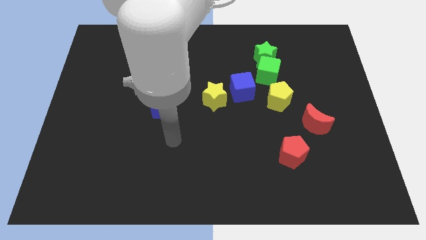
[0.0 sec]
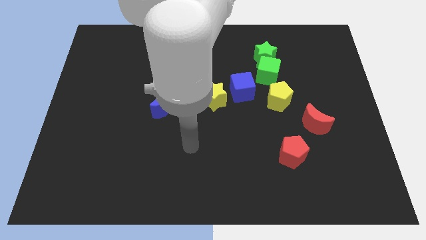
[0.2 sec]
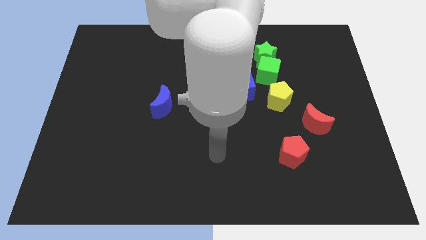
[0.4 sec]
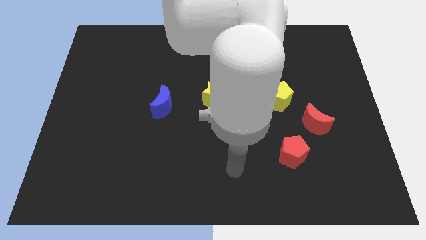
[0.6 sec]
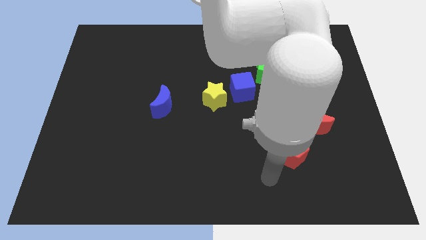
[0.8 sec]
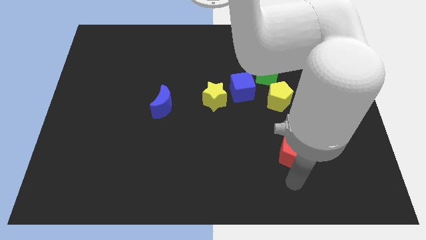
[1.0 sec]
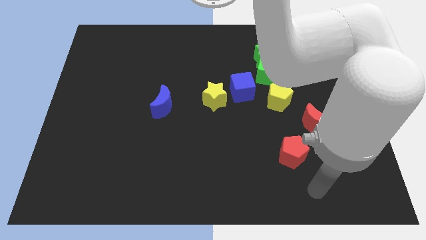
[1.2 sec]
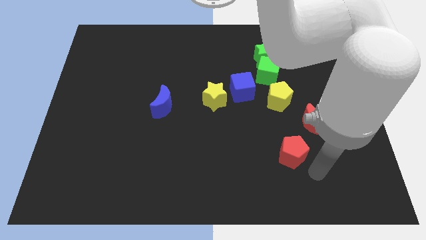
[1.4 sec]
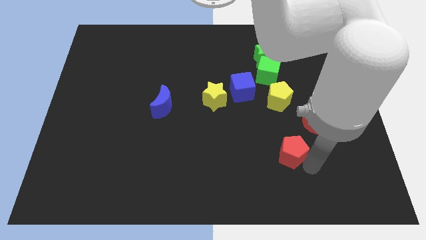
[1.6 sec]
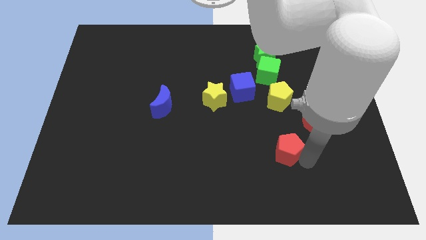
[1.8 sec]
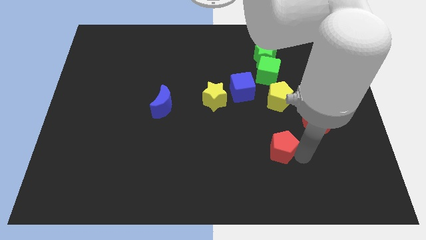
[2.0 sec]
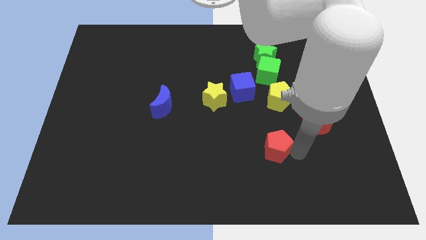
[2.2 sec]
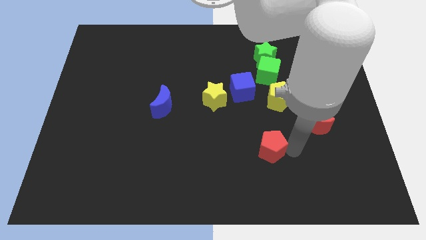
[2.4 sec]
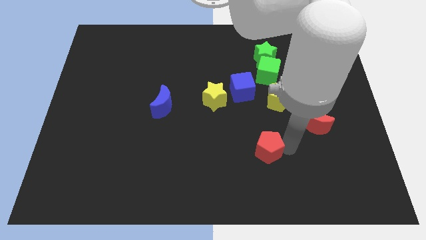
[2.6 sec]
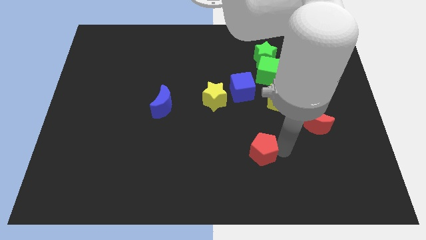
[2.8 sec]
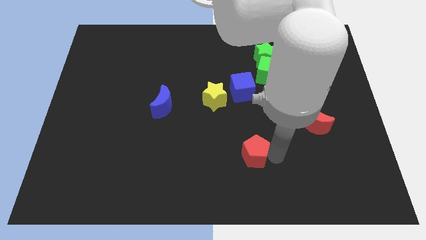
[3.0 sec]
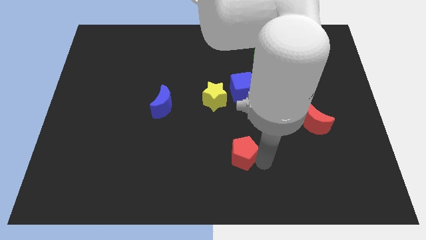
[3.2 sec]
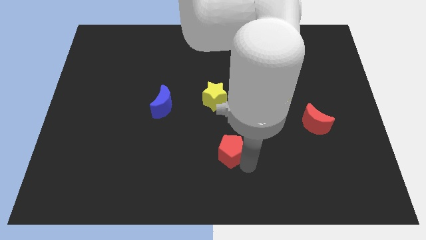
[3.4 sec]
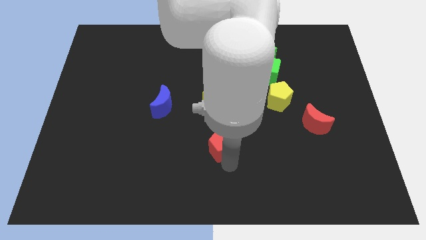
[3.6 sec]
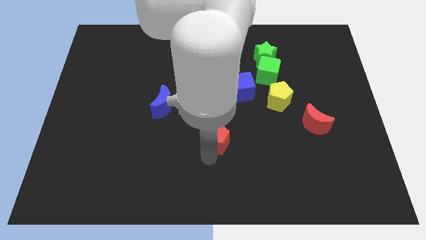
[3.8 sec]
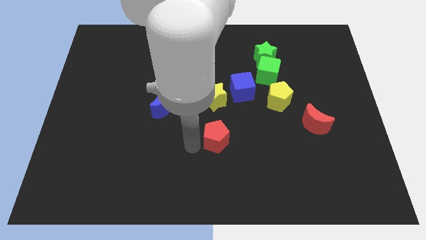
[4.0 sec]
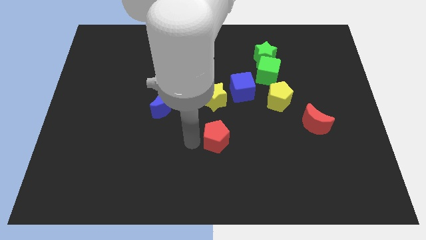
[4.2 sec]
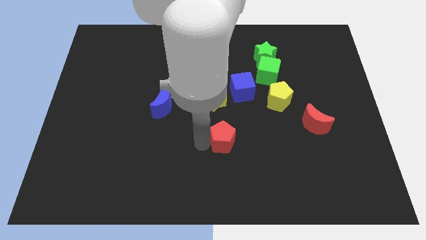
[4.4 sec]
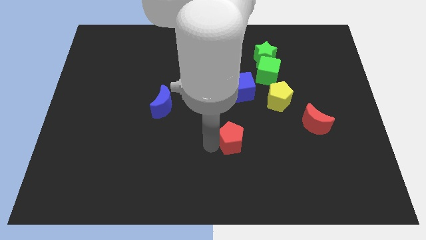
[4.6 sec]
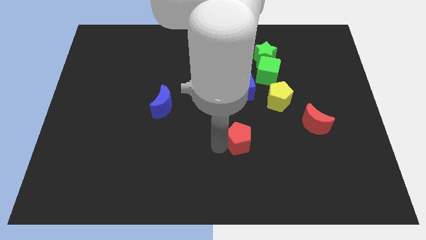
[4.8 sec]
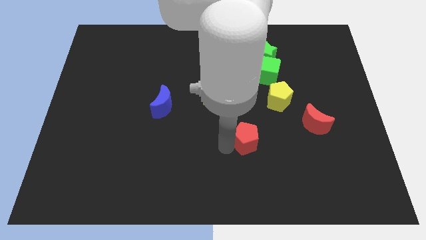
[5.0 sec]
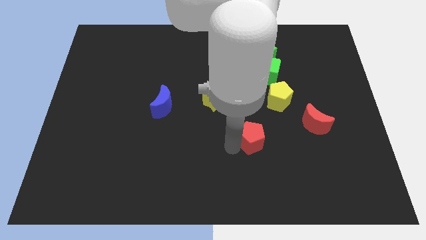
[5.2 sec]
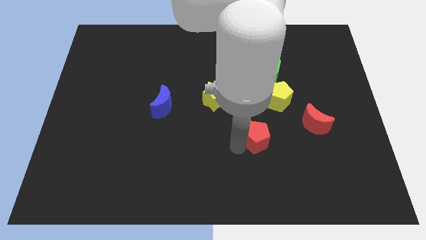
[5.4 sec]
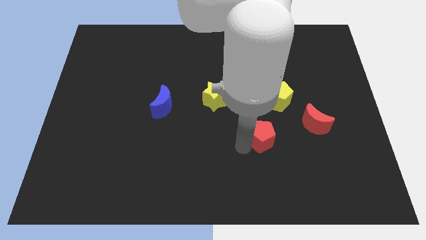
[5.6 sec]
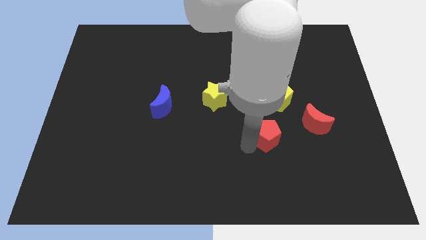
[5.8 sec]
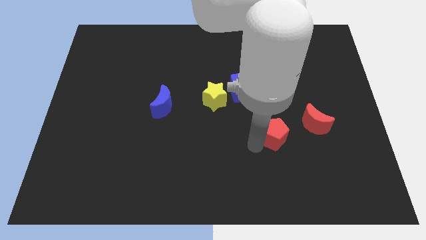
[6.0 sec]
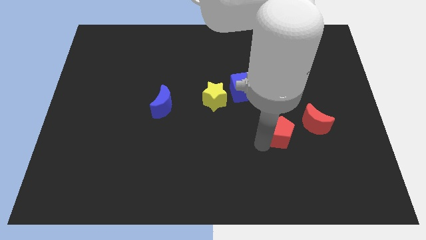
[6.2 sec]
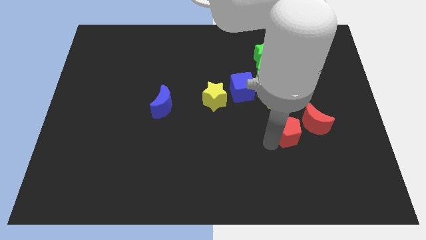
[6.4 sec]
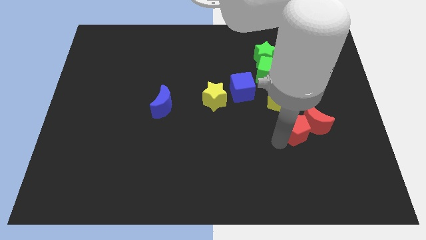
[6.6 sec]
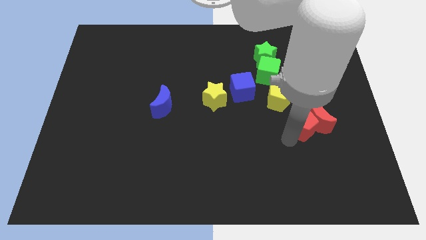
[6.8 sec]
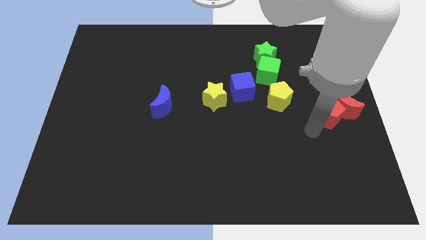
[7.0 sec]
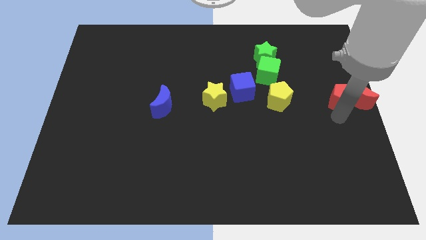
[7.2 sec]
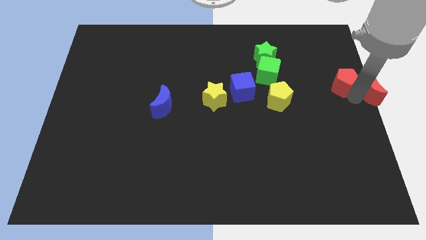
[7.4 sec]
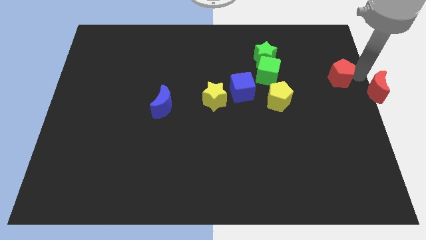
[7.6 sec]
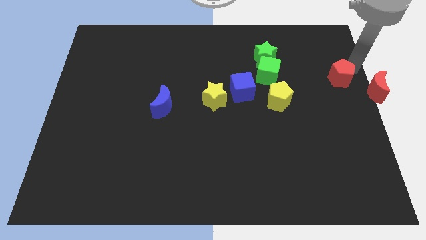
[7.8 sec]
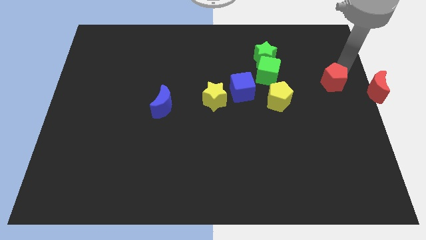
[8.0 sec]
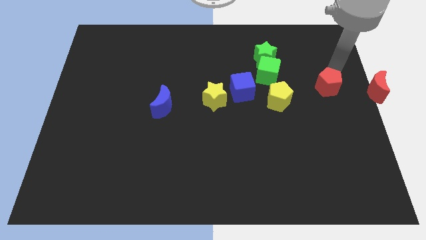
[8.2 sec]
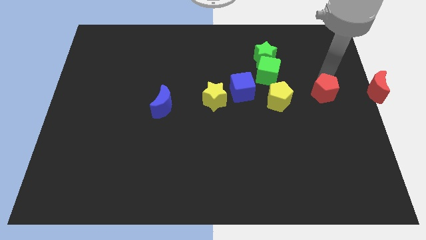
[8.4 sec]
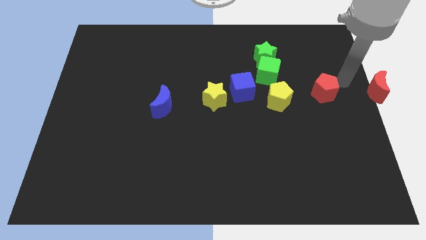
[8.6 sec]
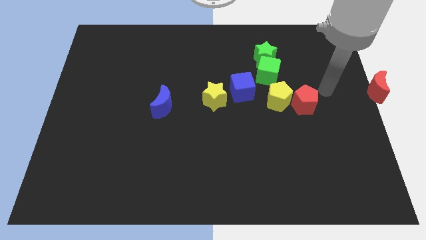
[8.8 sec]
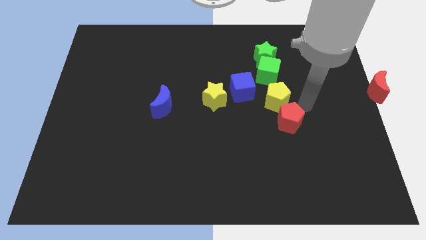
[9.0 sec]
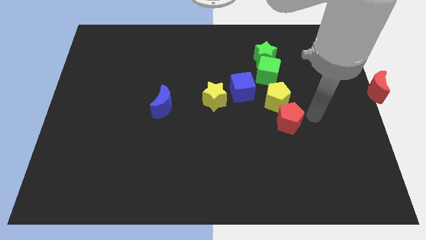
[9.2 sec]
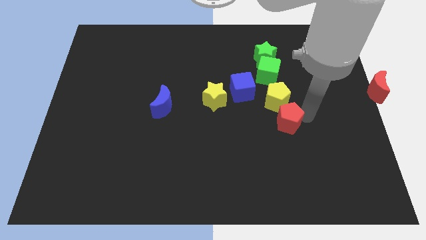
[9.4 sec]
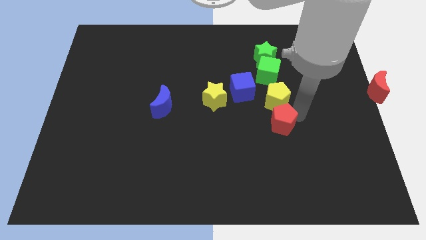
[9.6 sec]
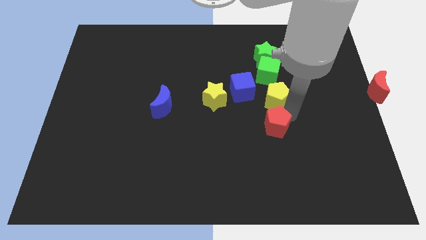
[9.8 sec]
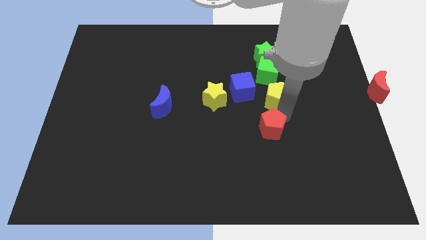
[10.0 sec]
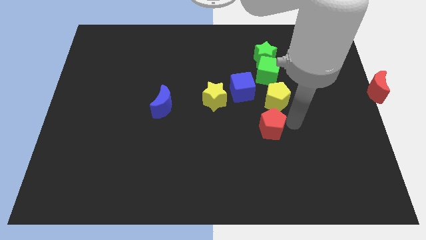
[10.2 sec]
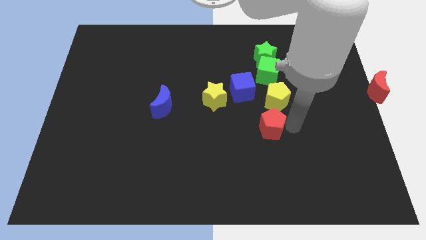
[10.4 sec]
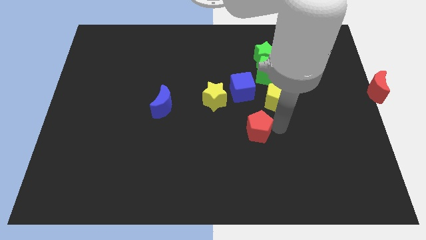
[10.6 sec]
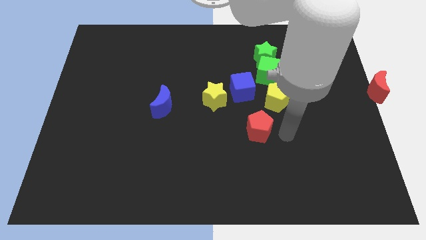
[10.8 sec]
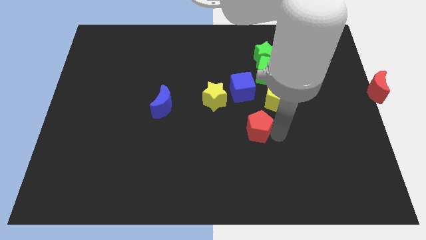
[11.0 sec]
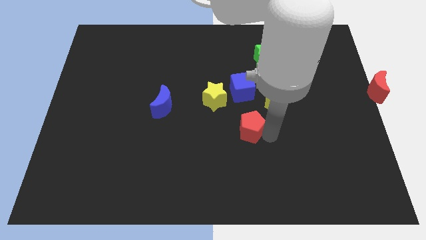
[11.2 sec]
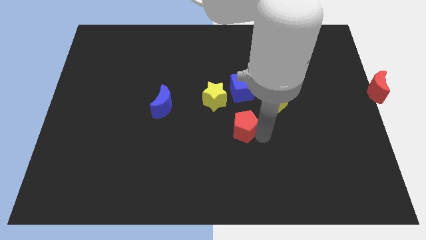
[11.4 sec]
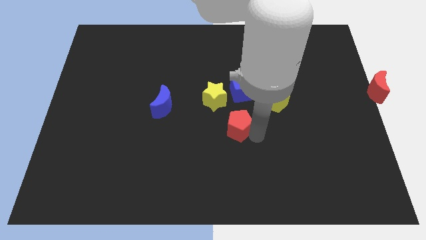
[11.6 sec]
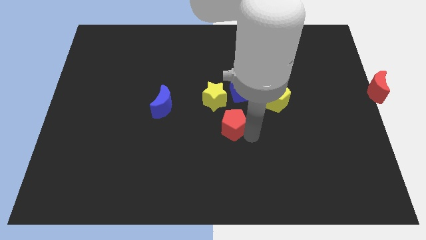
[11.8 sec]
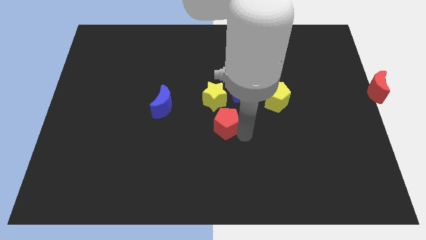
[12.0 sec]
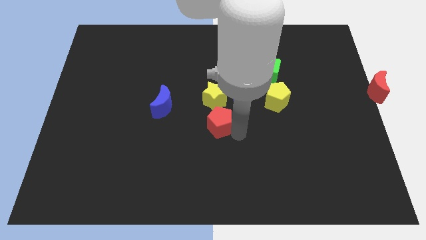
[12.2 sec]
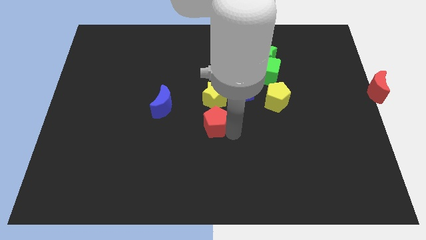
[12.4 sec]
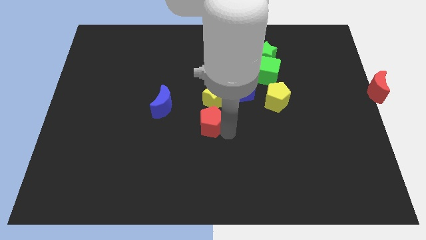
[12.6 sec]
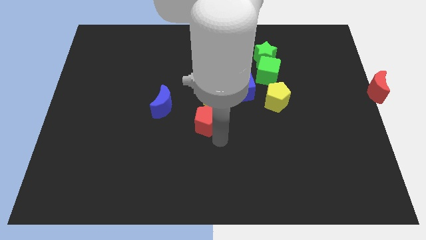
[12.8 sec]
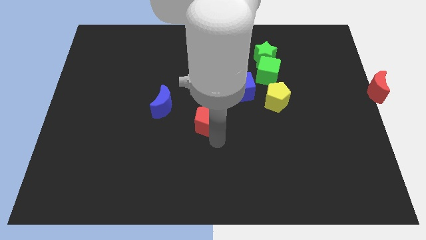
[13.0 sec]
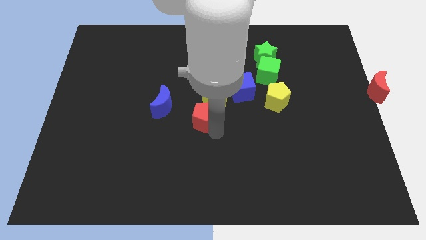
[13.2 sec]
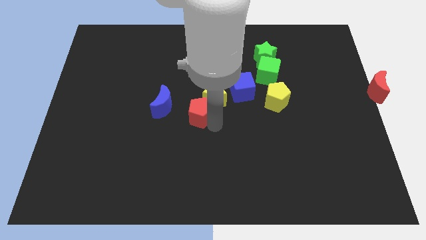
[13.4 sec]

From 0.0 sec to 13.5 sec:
slide the red pentagon upwards and to the left diagonally

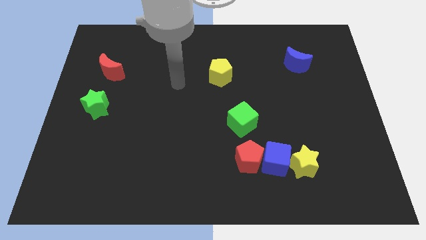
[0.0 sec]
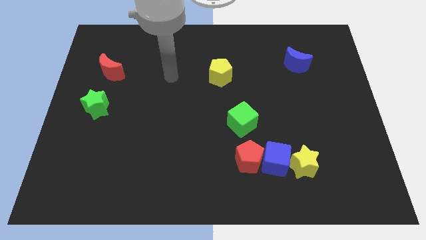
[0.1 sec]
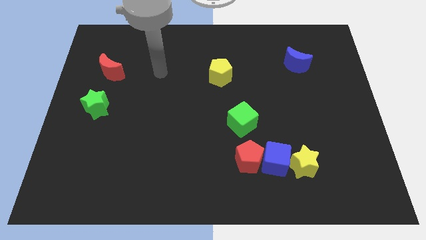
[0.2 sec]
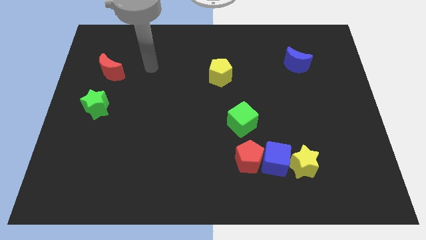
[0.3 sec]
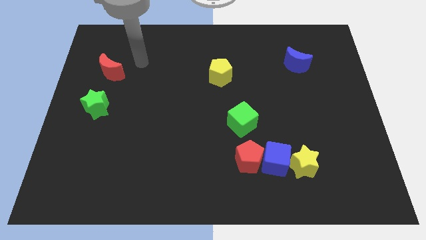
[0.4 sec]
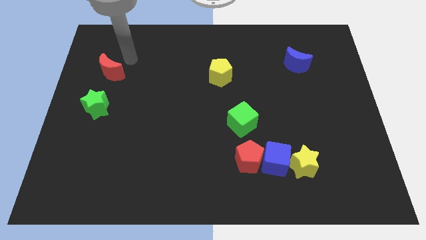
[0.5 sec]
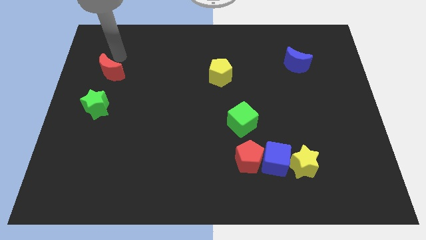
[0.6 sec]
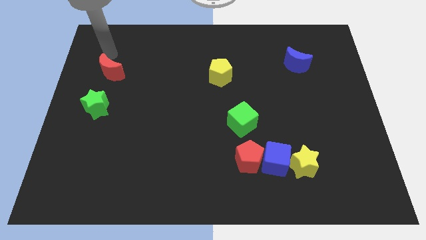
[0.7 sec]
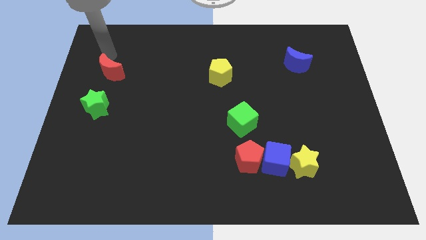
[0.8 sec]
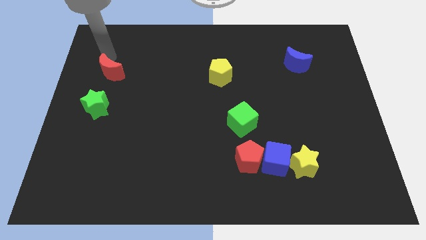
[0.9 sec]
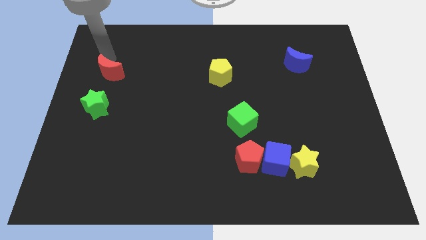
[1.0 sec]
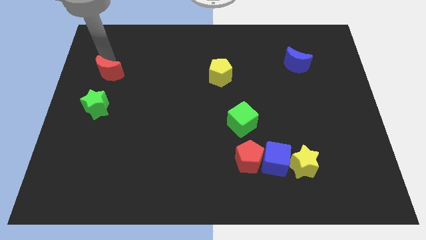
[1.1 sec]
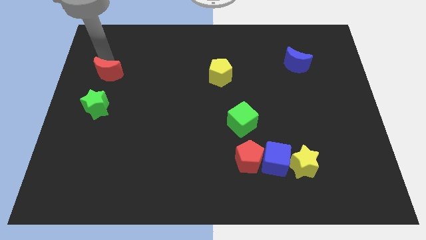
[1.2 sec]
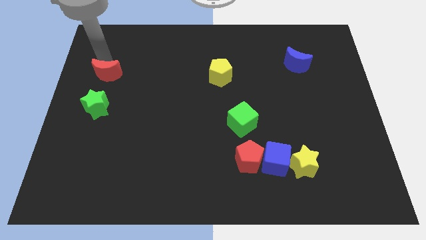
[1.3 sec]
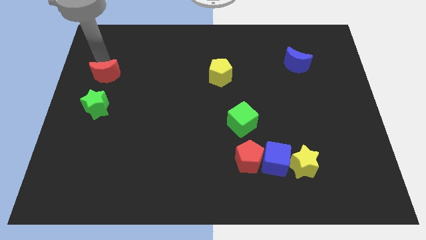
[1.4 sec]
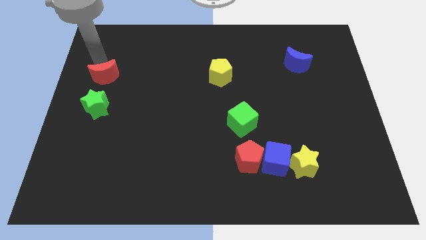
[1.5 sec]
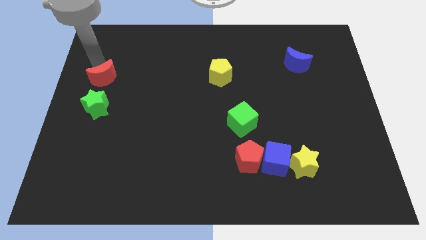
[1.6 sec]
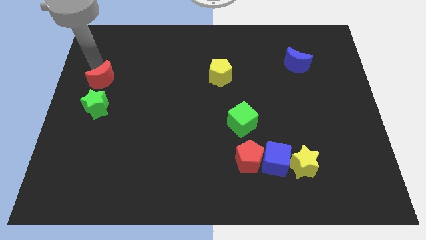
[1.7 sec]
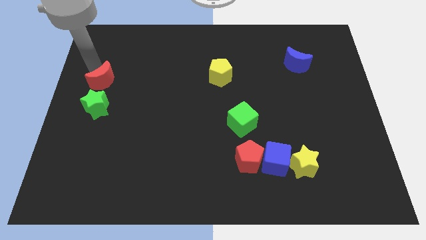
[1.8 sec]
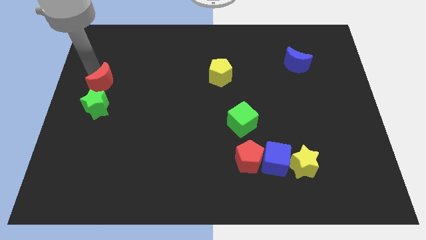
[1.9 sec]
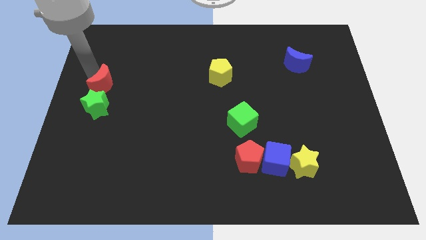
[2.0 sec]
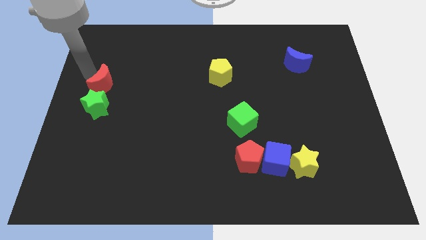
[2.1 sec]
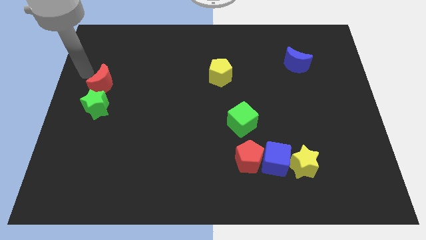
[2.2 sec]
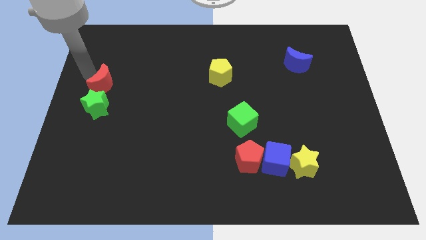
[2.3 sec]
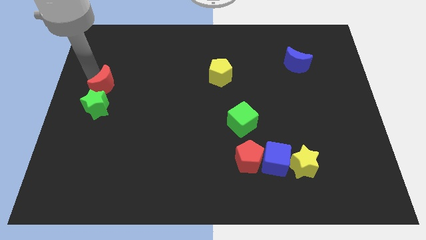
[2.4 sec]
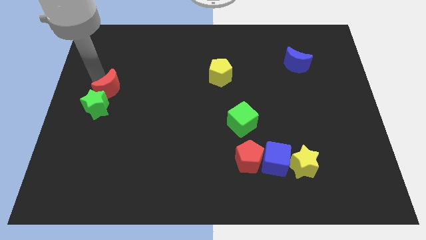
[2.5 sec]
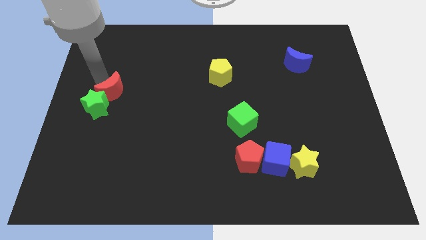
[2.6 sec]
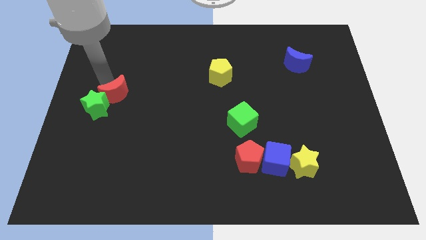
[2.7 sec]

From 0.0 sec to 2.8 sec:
slide the red moon downwards a bit
